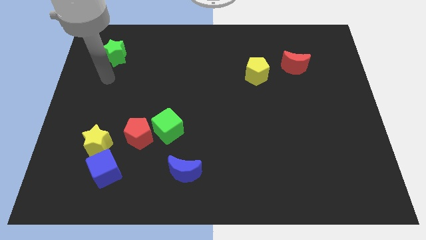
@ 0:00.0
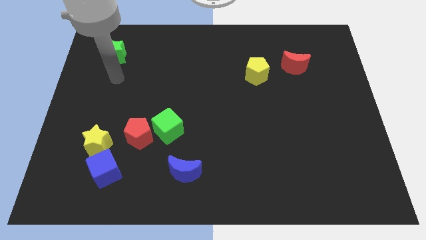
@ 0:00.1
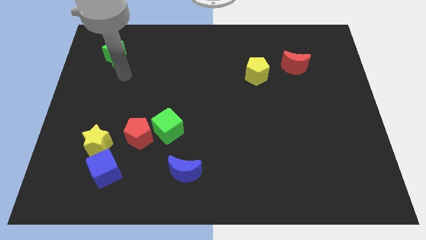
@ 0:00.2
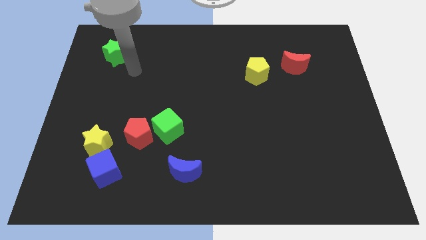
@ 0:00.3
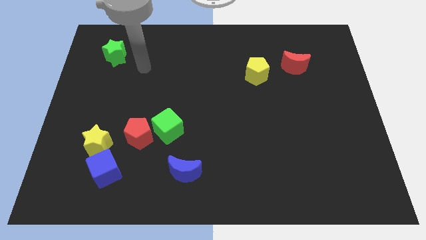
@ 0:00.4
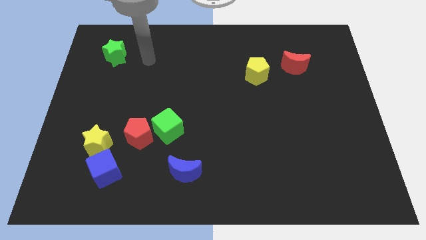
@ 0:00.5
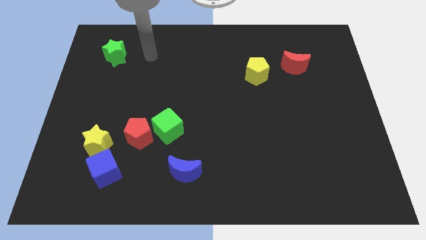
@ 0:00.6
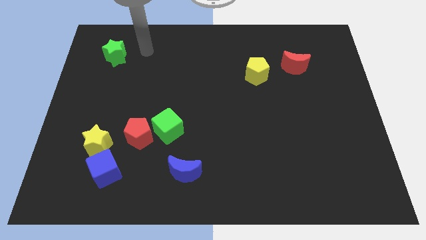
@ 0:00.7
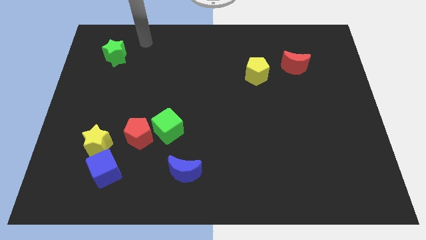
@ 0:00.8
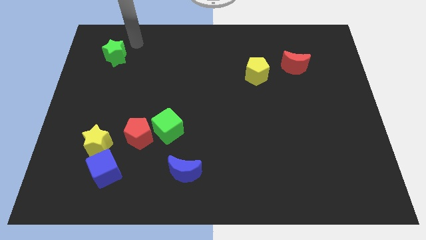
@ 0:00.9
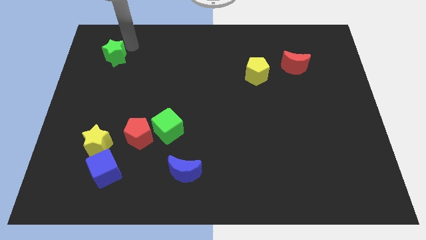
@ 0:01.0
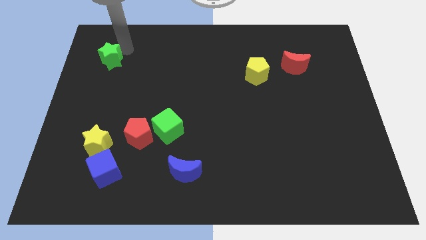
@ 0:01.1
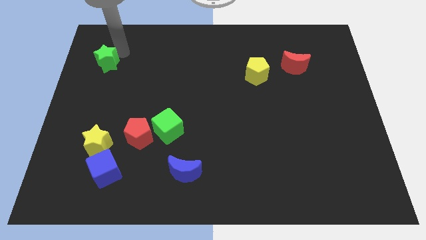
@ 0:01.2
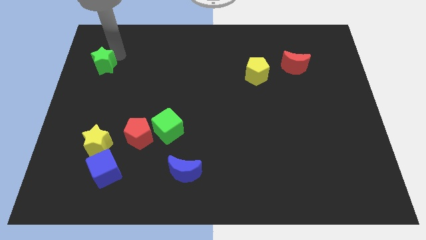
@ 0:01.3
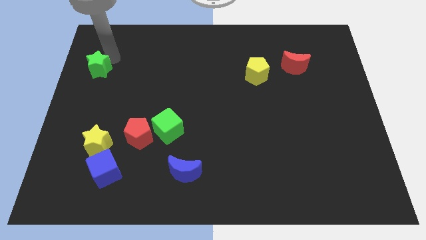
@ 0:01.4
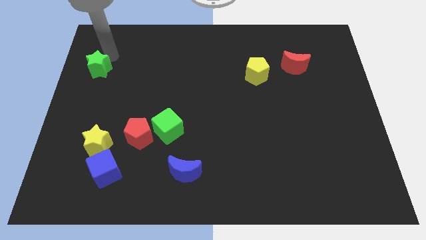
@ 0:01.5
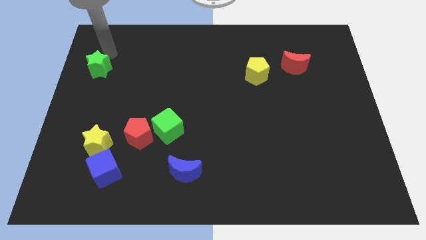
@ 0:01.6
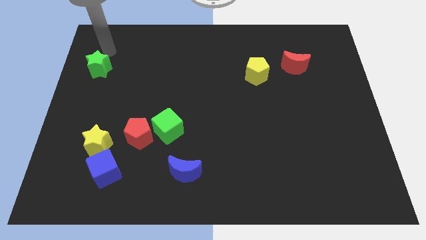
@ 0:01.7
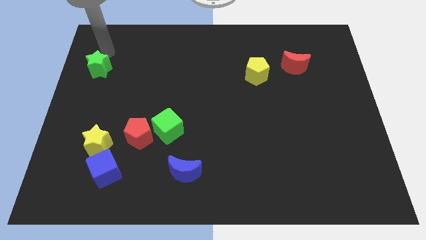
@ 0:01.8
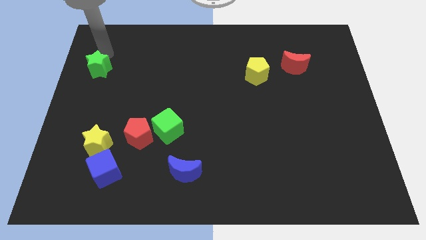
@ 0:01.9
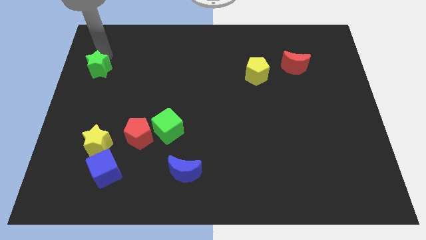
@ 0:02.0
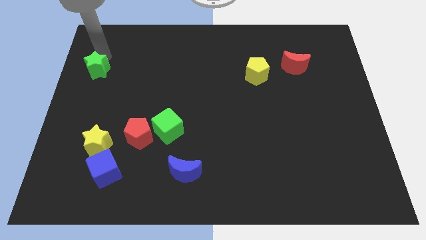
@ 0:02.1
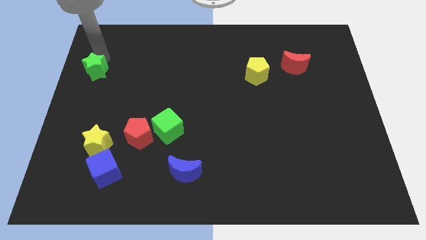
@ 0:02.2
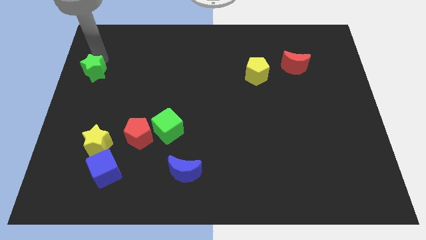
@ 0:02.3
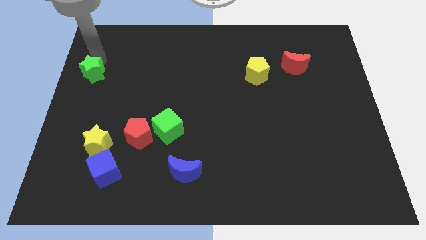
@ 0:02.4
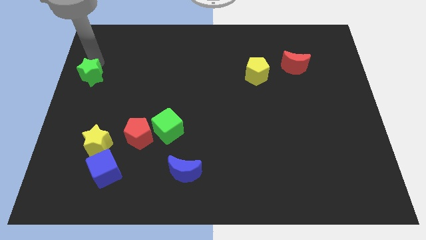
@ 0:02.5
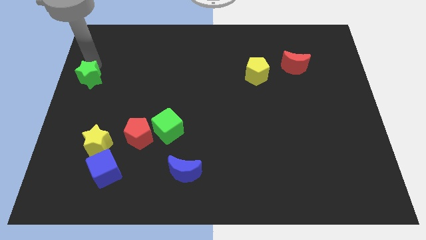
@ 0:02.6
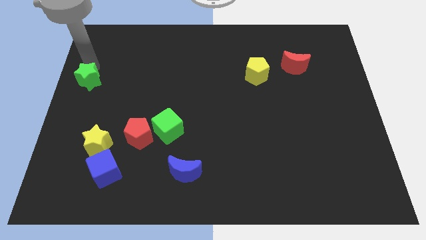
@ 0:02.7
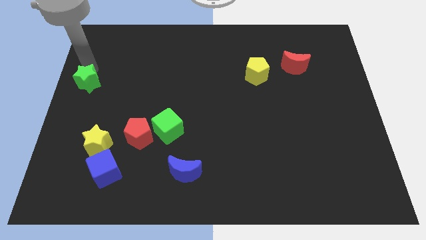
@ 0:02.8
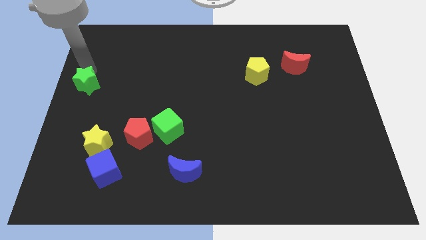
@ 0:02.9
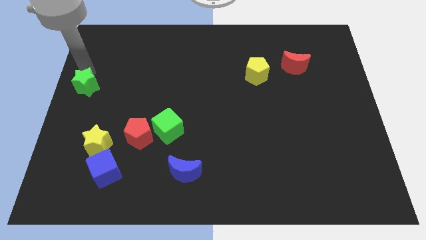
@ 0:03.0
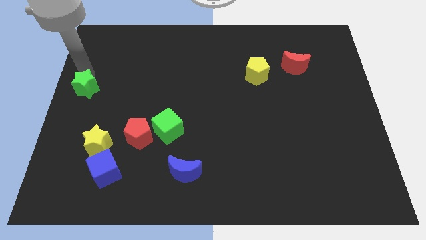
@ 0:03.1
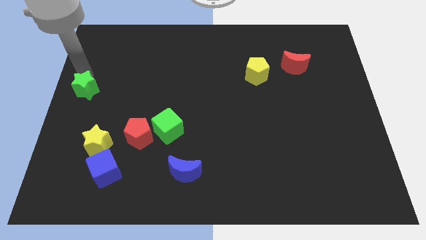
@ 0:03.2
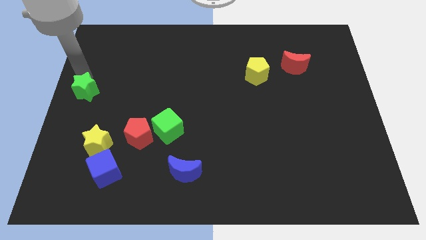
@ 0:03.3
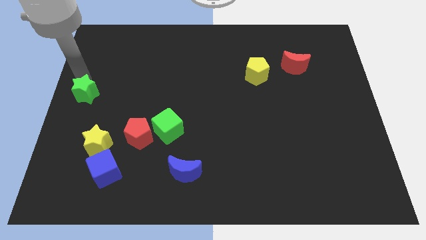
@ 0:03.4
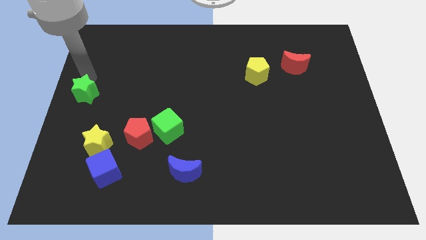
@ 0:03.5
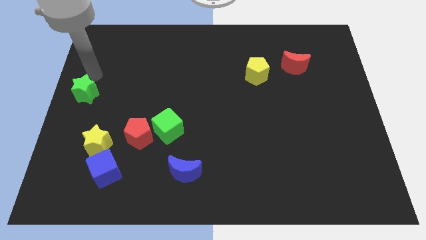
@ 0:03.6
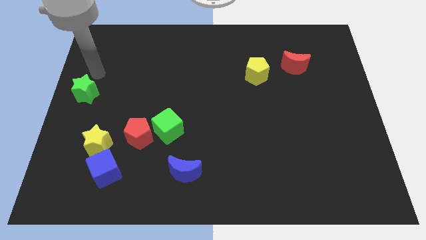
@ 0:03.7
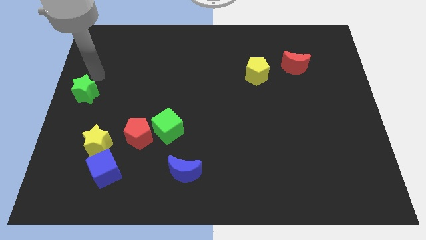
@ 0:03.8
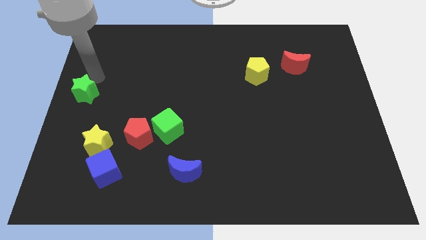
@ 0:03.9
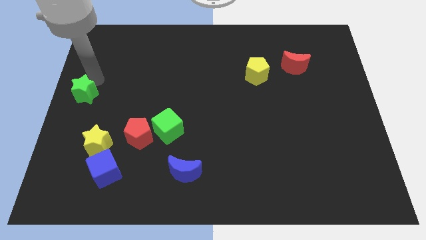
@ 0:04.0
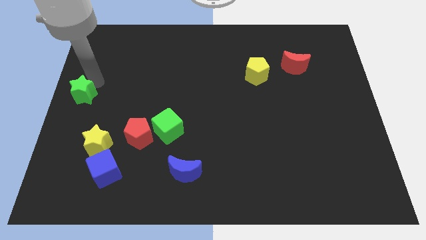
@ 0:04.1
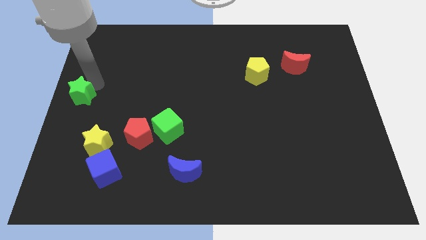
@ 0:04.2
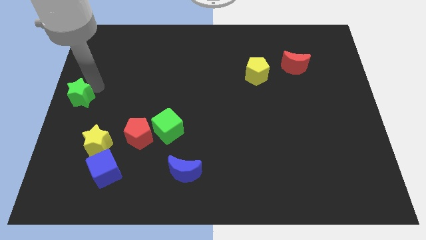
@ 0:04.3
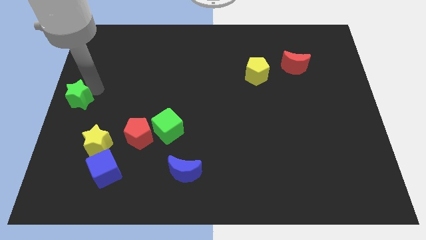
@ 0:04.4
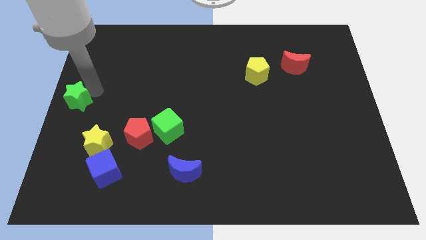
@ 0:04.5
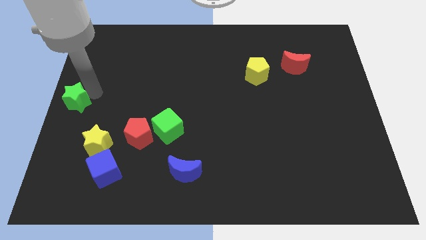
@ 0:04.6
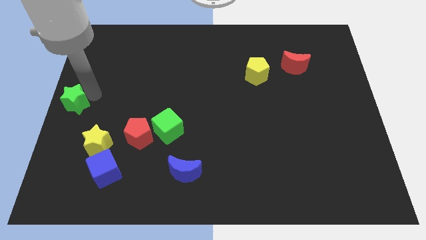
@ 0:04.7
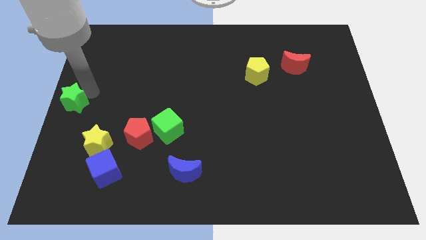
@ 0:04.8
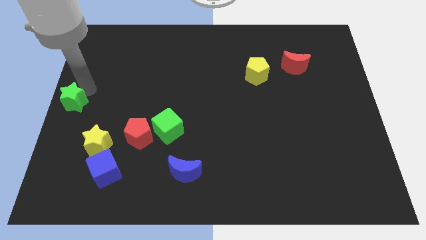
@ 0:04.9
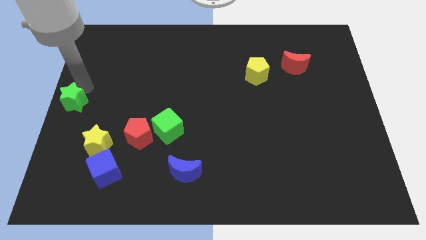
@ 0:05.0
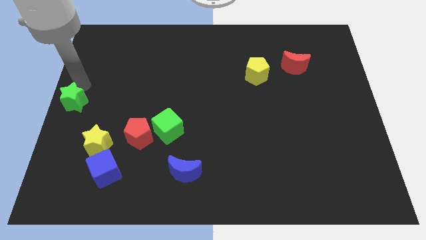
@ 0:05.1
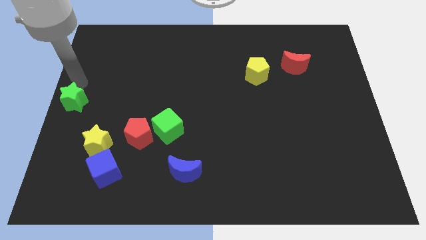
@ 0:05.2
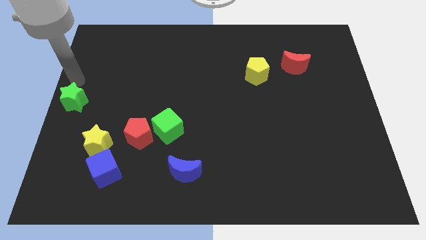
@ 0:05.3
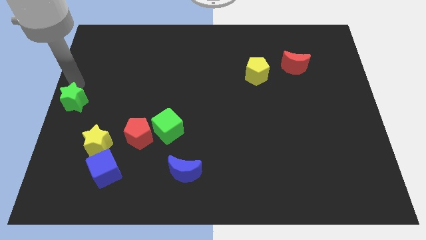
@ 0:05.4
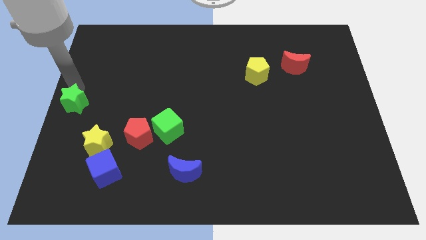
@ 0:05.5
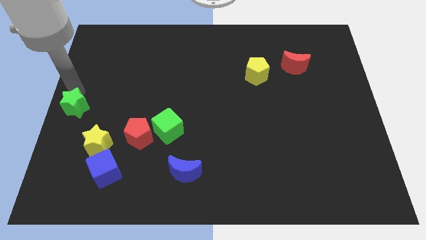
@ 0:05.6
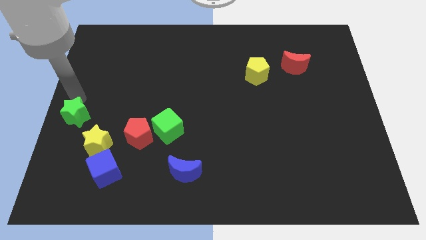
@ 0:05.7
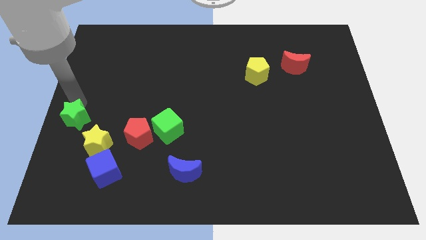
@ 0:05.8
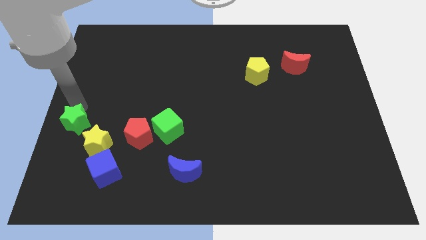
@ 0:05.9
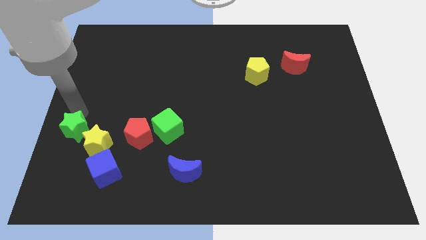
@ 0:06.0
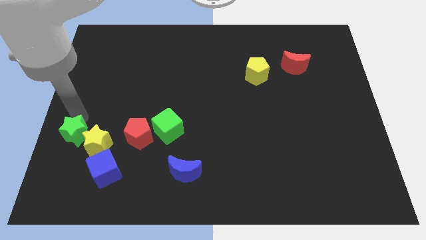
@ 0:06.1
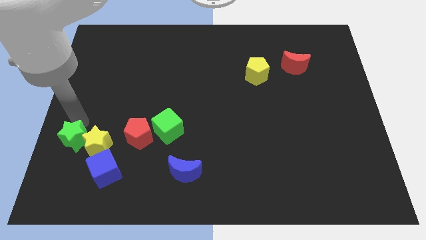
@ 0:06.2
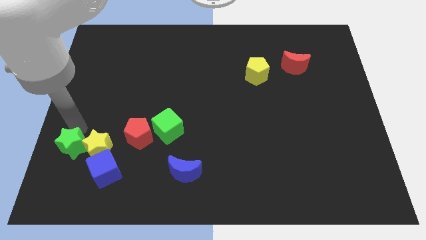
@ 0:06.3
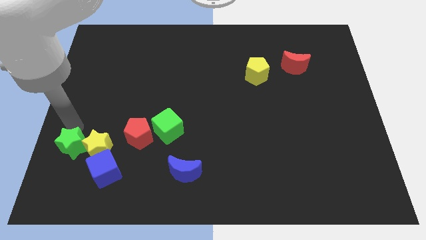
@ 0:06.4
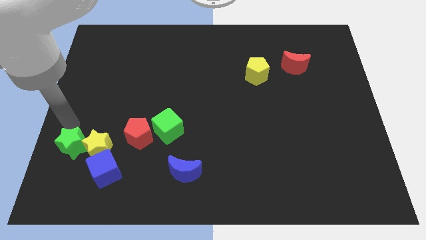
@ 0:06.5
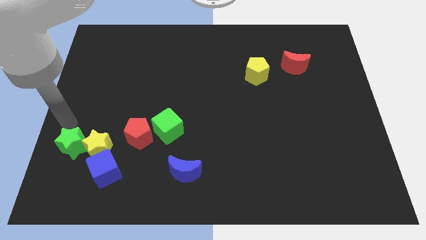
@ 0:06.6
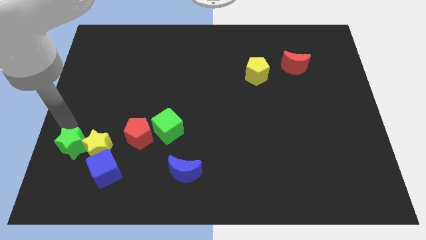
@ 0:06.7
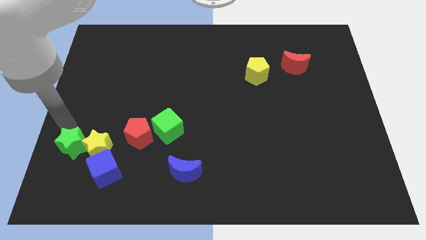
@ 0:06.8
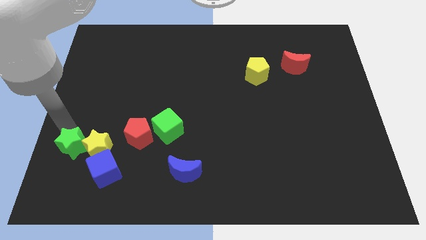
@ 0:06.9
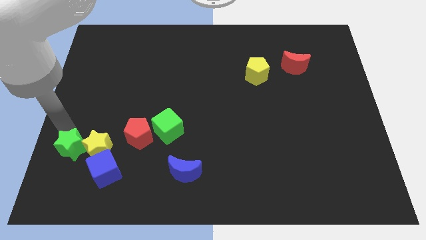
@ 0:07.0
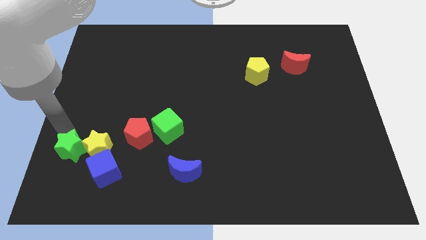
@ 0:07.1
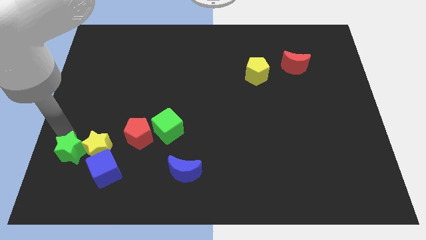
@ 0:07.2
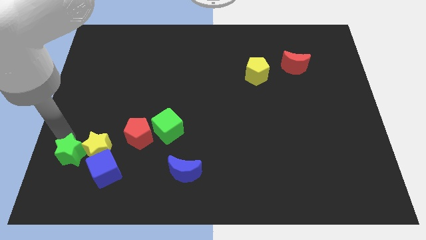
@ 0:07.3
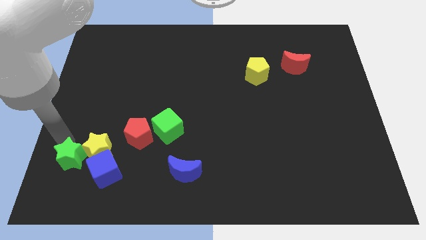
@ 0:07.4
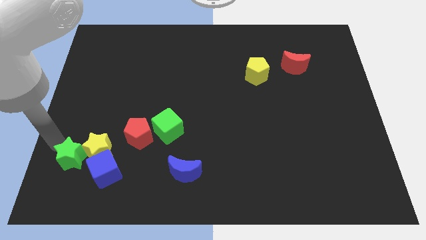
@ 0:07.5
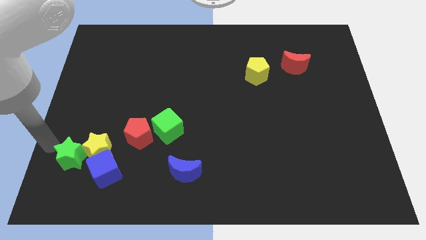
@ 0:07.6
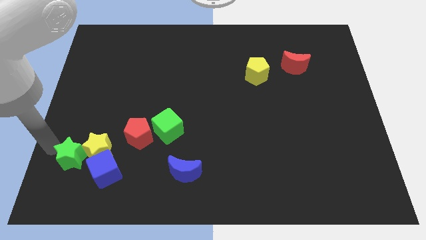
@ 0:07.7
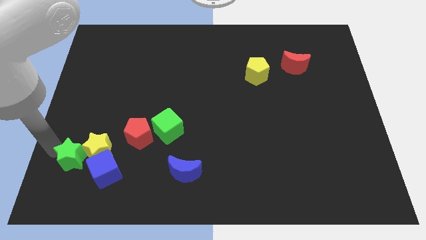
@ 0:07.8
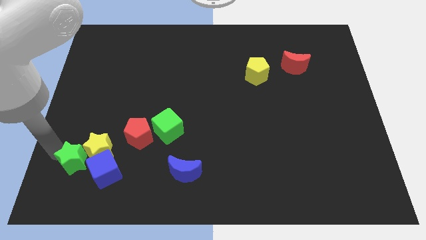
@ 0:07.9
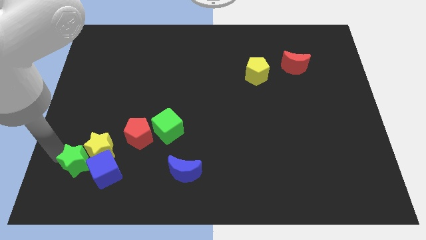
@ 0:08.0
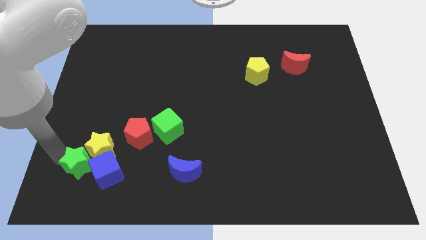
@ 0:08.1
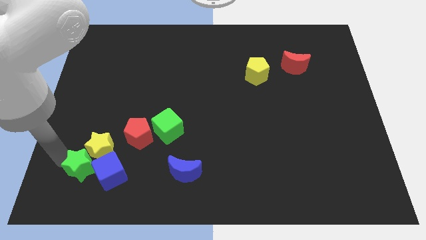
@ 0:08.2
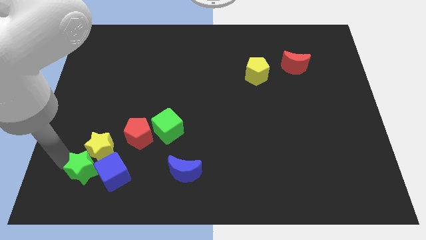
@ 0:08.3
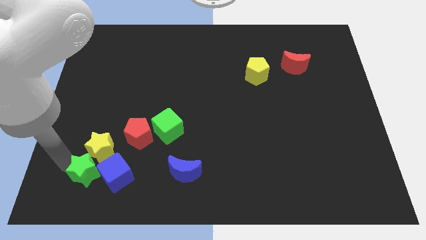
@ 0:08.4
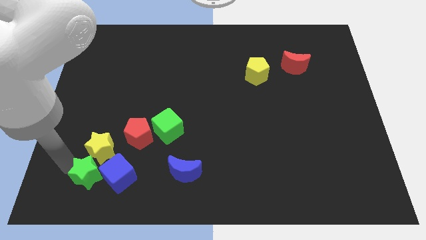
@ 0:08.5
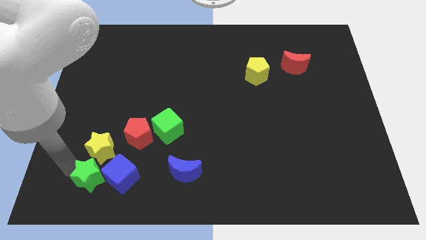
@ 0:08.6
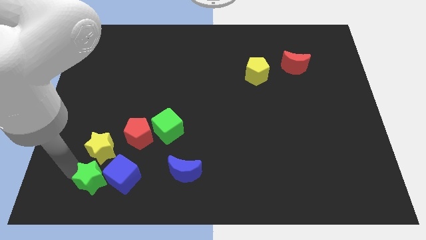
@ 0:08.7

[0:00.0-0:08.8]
push the green star close to the blue cube
